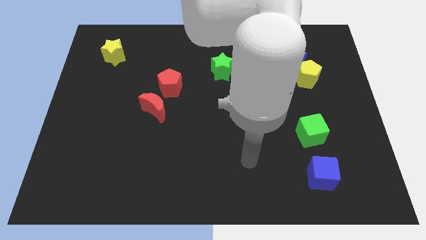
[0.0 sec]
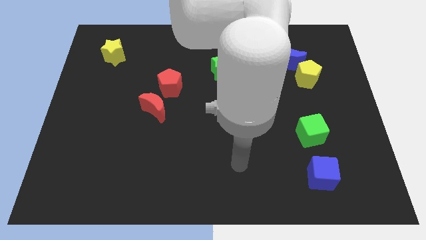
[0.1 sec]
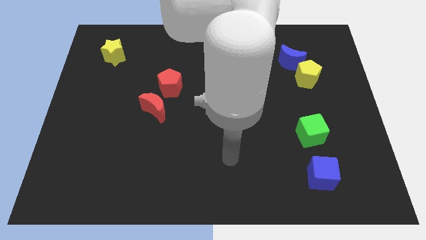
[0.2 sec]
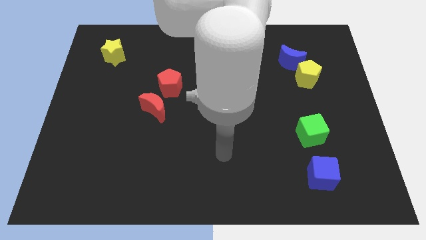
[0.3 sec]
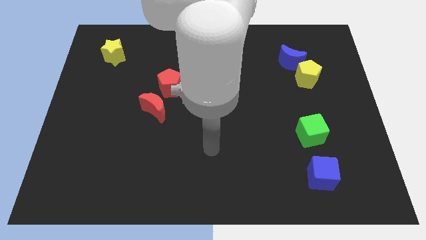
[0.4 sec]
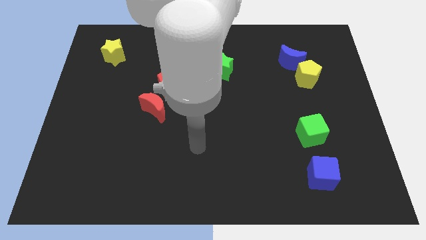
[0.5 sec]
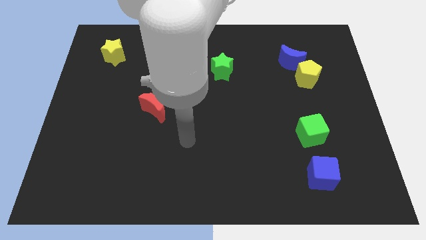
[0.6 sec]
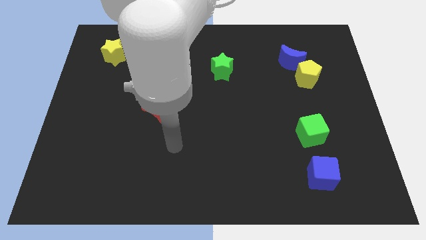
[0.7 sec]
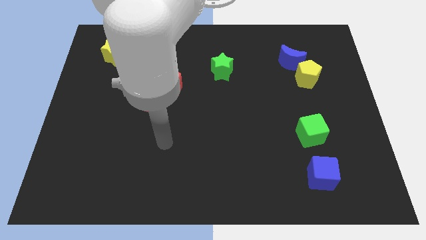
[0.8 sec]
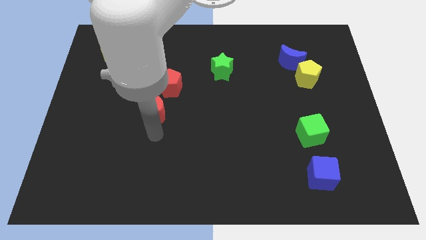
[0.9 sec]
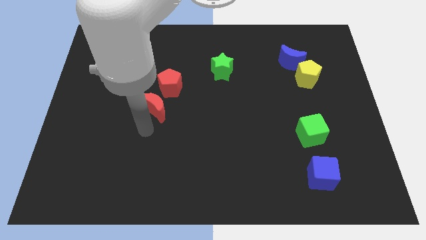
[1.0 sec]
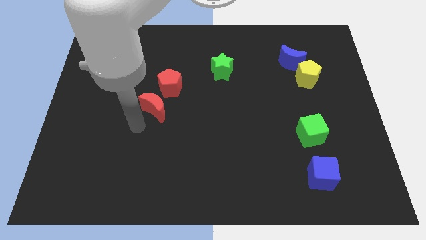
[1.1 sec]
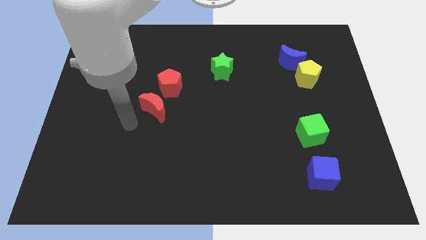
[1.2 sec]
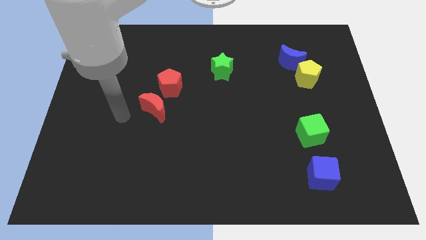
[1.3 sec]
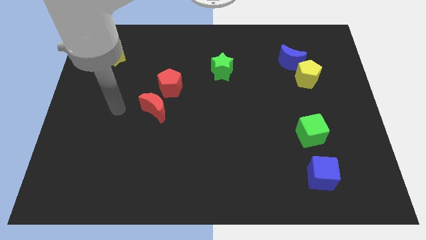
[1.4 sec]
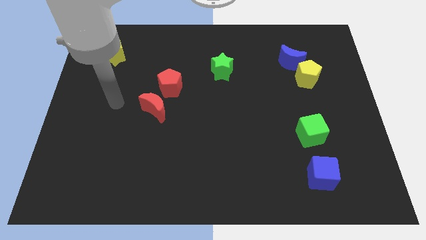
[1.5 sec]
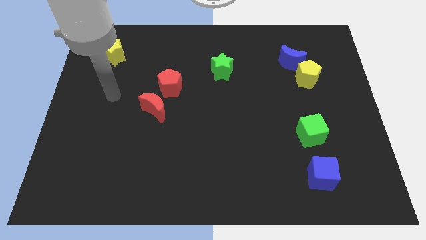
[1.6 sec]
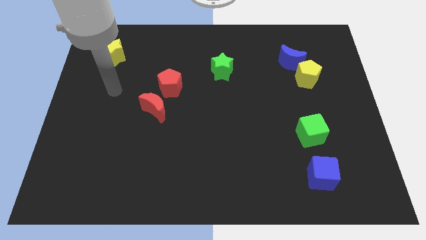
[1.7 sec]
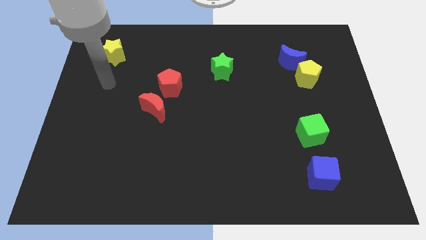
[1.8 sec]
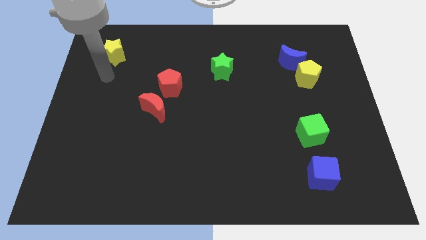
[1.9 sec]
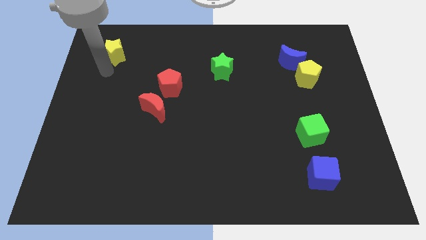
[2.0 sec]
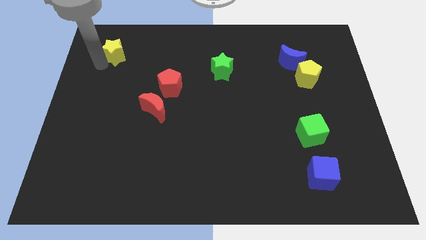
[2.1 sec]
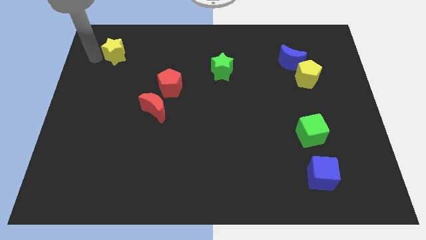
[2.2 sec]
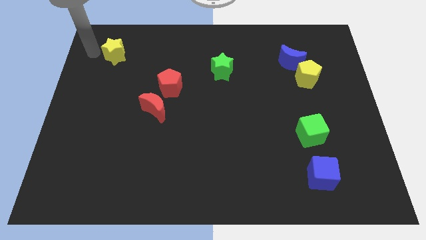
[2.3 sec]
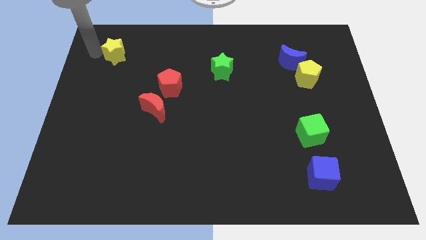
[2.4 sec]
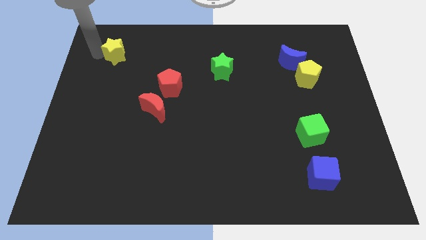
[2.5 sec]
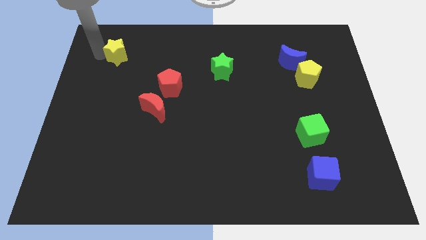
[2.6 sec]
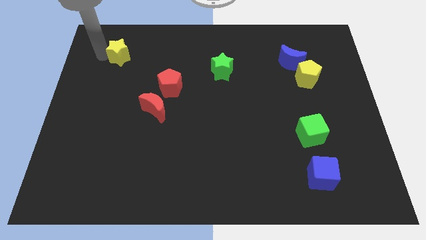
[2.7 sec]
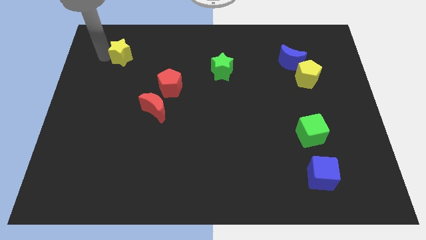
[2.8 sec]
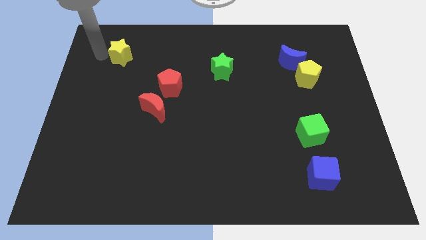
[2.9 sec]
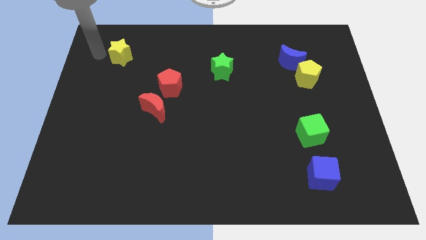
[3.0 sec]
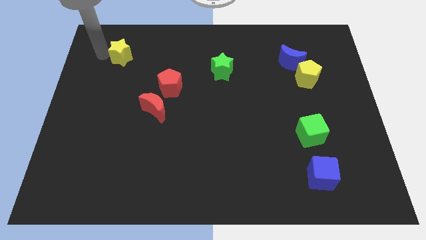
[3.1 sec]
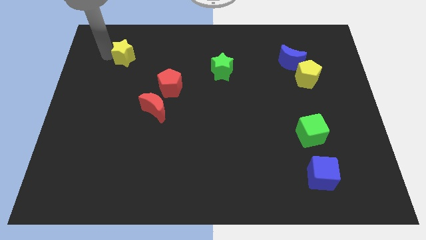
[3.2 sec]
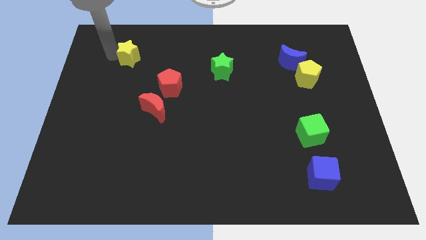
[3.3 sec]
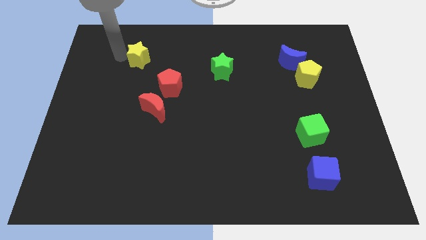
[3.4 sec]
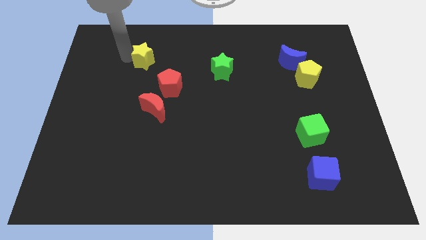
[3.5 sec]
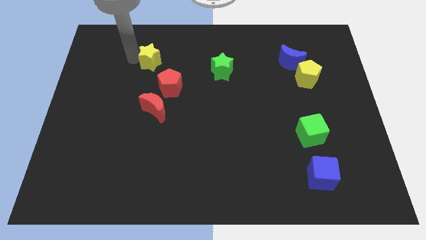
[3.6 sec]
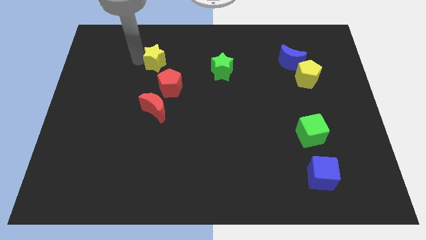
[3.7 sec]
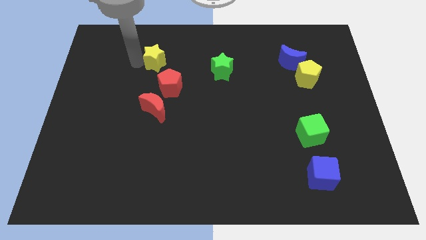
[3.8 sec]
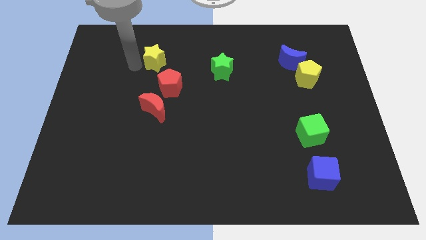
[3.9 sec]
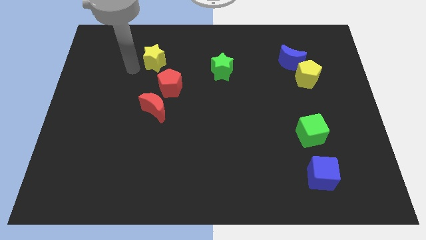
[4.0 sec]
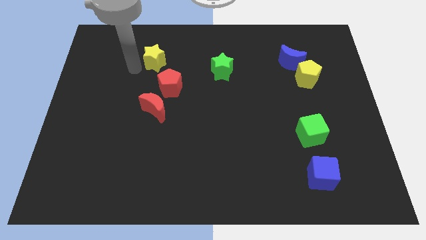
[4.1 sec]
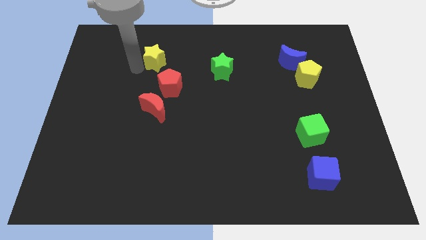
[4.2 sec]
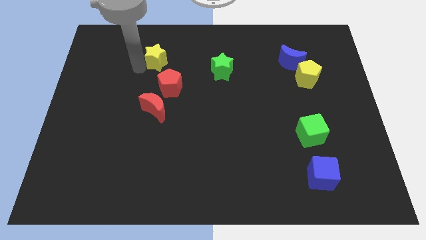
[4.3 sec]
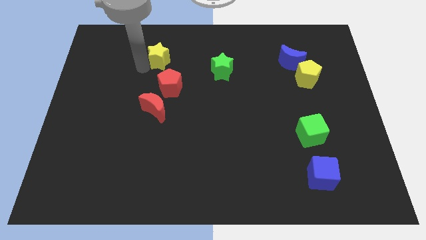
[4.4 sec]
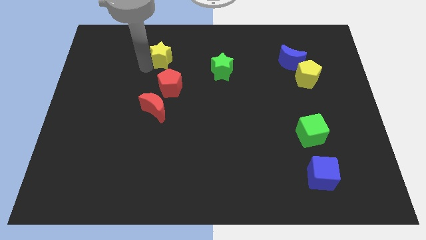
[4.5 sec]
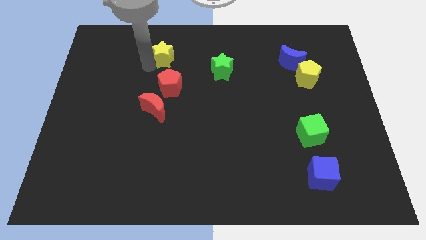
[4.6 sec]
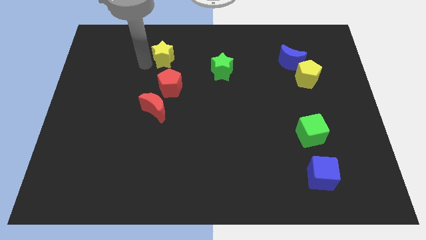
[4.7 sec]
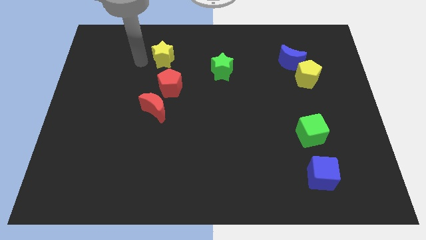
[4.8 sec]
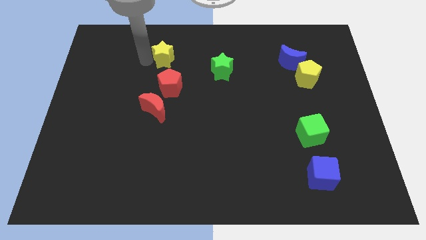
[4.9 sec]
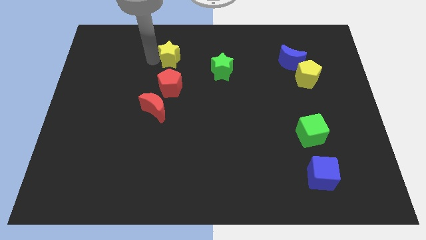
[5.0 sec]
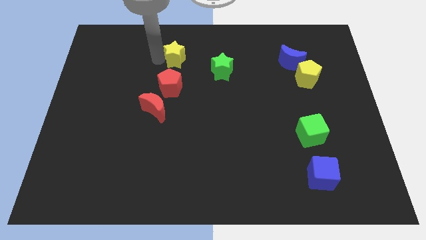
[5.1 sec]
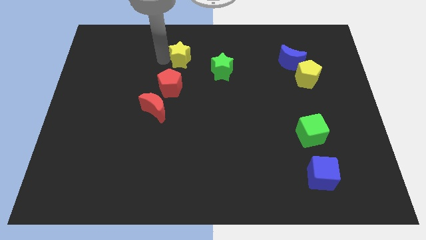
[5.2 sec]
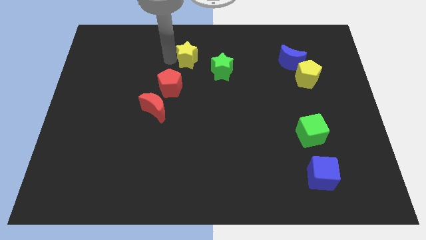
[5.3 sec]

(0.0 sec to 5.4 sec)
move the yellow star to the top left of the green star

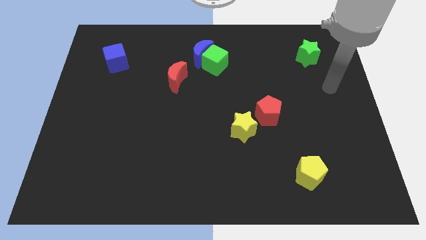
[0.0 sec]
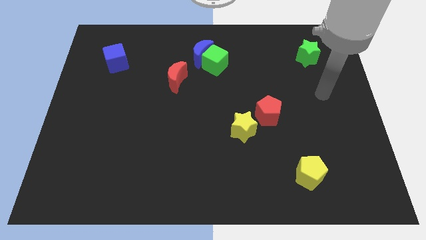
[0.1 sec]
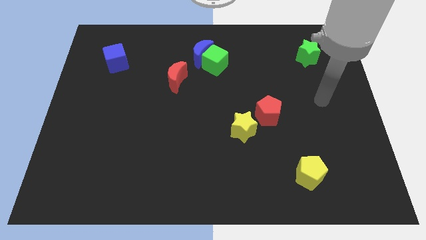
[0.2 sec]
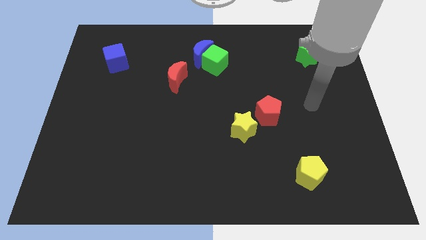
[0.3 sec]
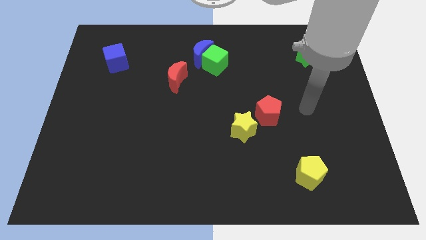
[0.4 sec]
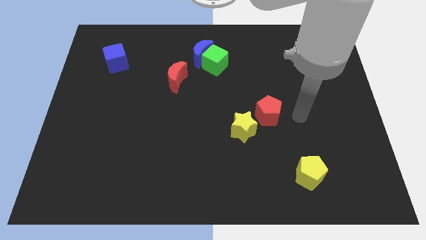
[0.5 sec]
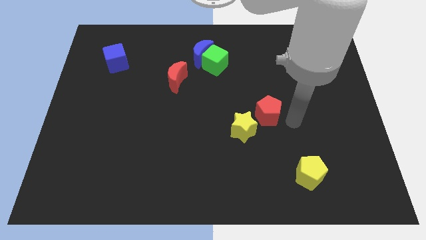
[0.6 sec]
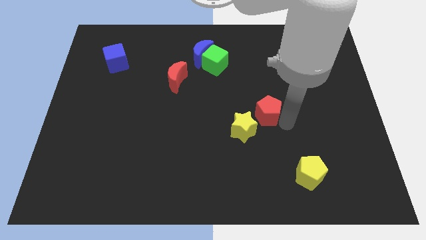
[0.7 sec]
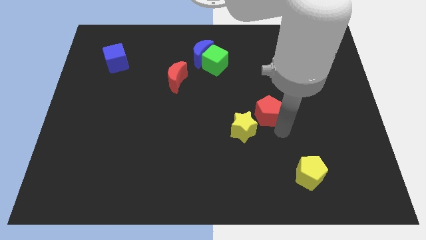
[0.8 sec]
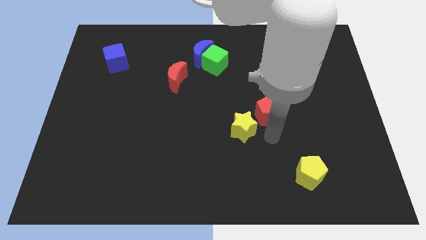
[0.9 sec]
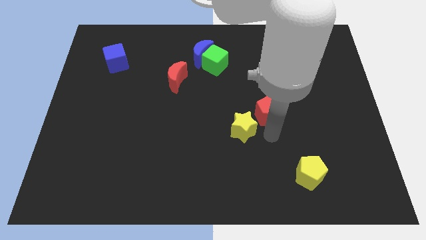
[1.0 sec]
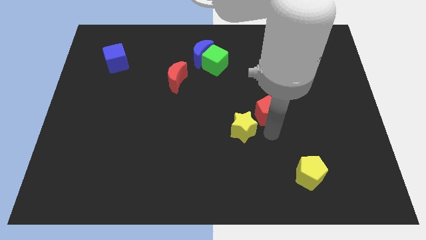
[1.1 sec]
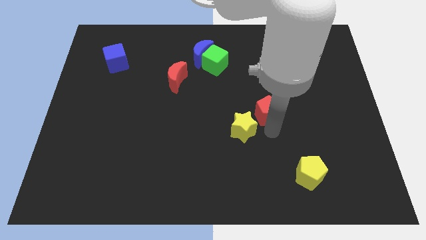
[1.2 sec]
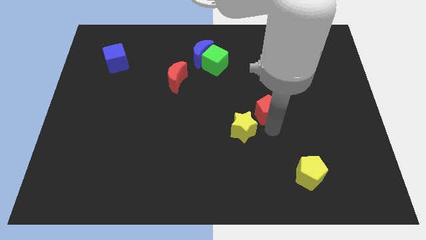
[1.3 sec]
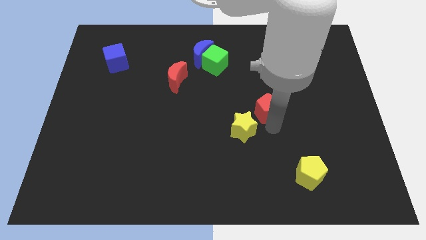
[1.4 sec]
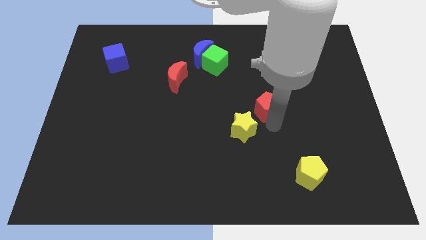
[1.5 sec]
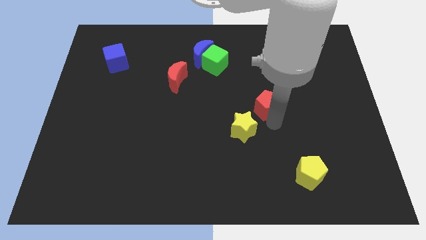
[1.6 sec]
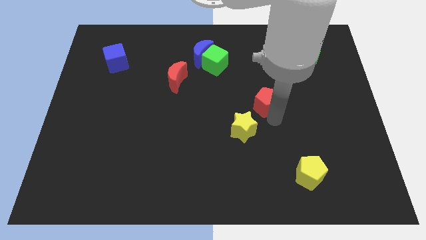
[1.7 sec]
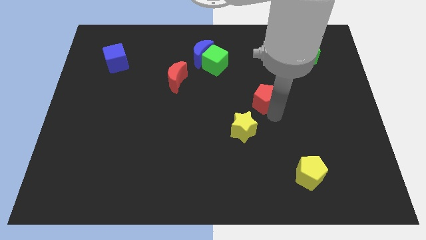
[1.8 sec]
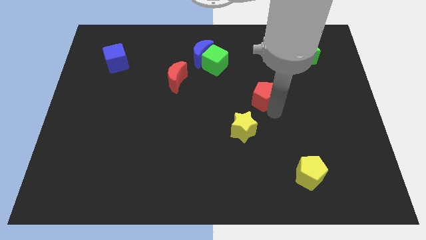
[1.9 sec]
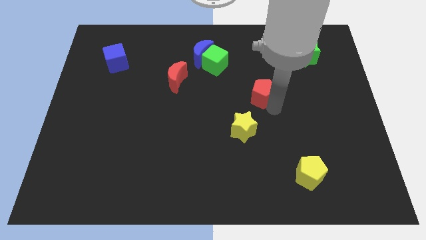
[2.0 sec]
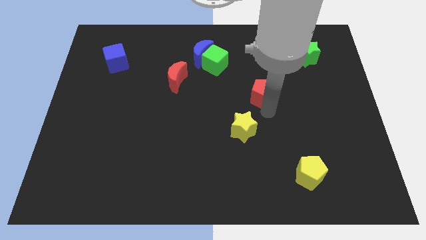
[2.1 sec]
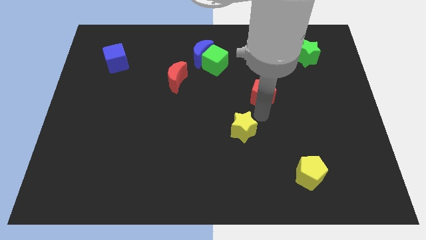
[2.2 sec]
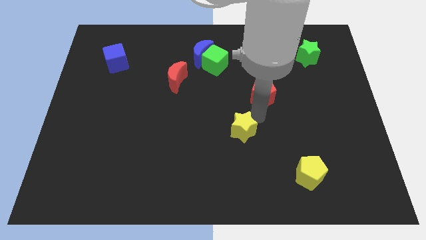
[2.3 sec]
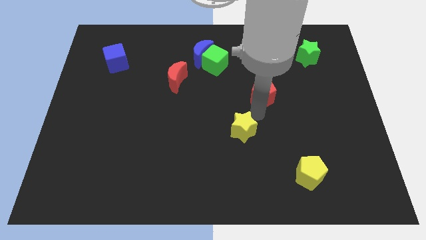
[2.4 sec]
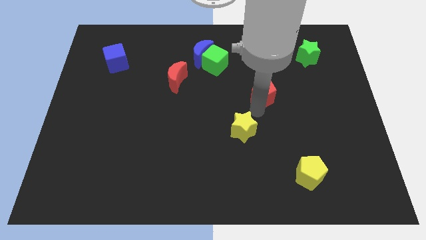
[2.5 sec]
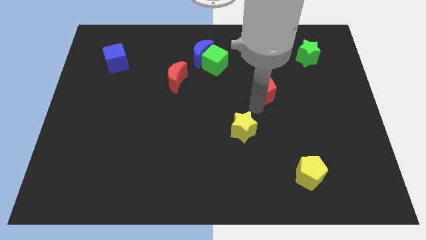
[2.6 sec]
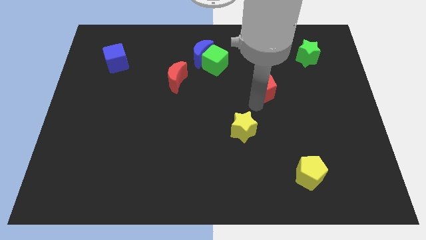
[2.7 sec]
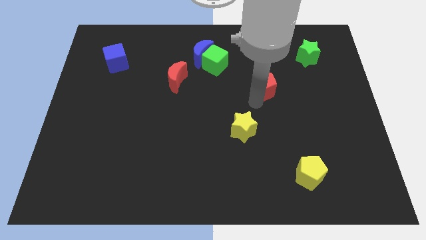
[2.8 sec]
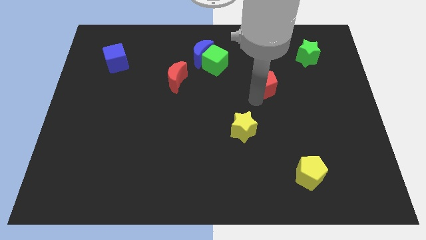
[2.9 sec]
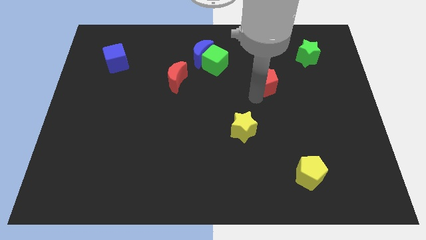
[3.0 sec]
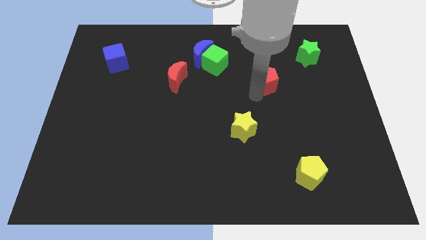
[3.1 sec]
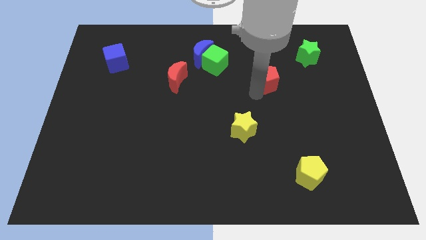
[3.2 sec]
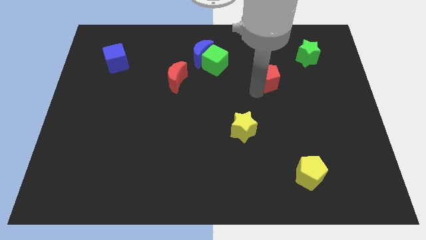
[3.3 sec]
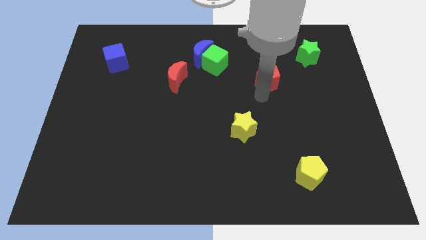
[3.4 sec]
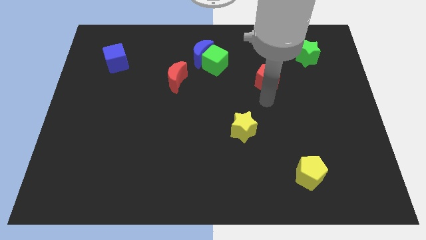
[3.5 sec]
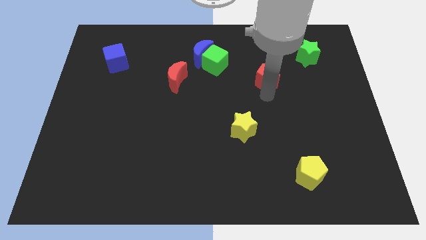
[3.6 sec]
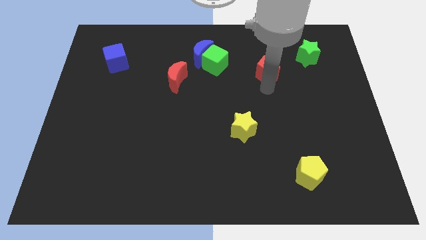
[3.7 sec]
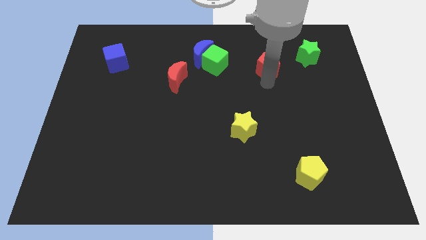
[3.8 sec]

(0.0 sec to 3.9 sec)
push the red pentagon to the left side of the green star
